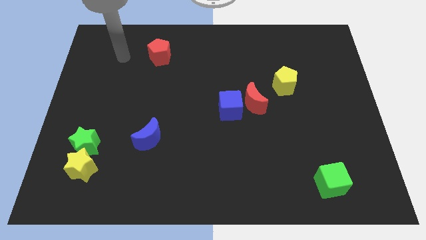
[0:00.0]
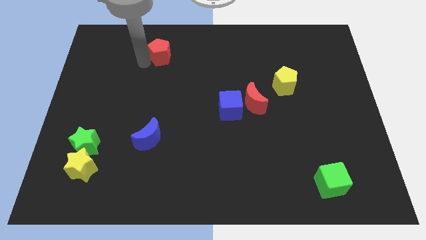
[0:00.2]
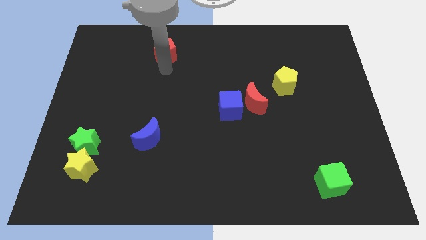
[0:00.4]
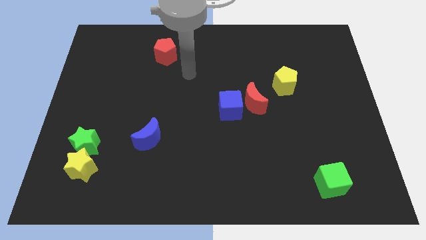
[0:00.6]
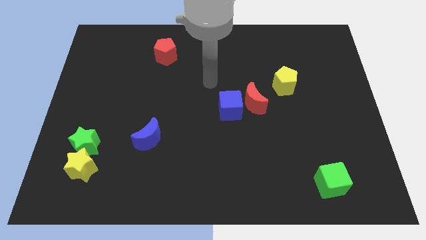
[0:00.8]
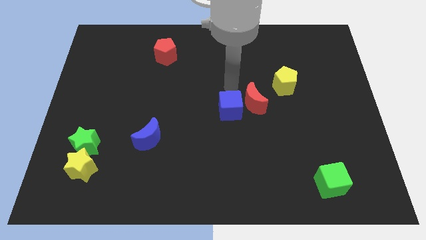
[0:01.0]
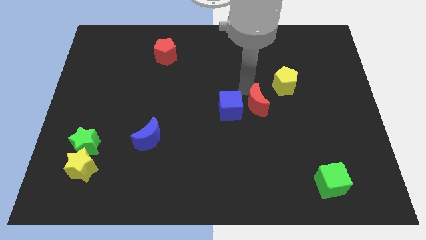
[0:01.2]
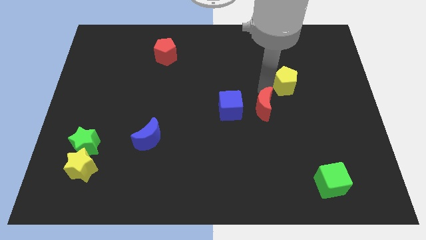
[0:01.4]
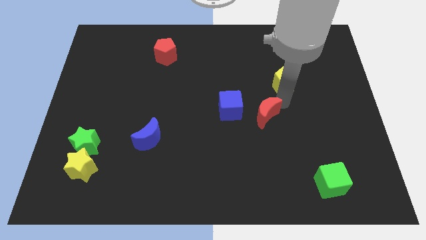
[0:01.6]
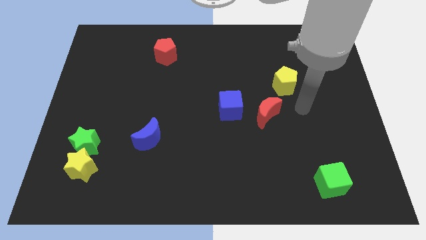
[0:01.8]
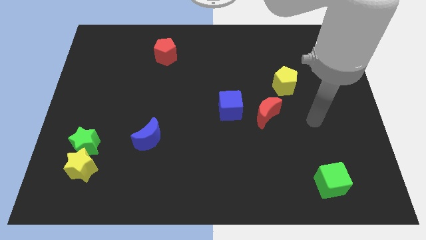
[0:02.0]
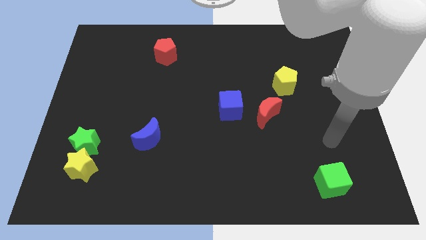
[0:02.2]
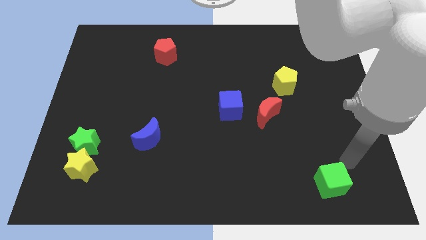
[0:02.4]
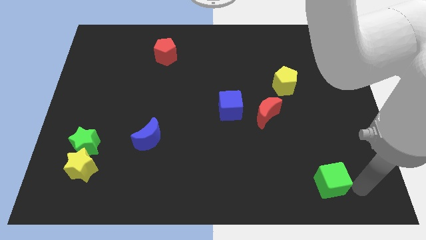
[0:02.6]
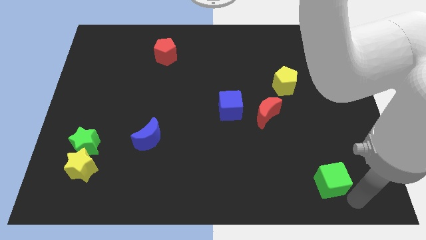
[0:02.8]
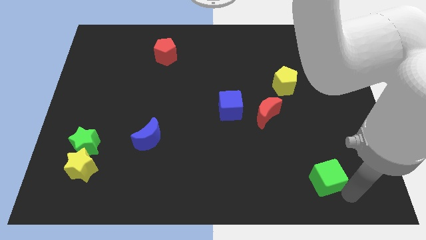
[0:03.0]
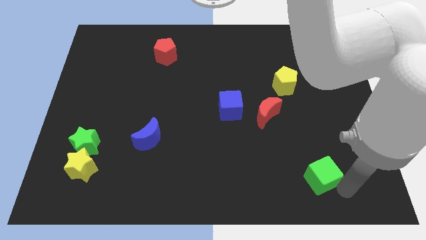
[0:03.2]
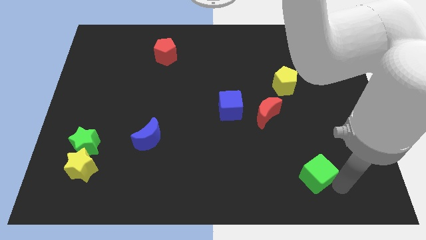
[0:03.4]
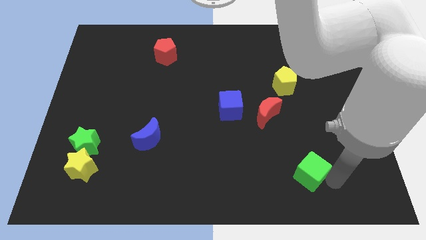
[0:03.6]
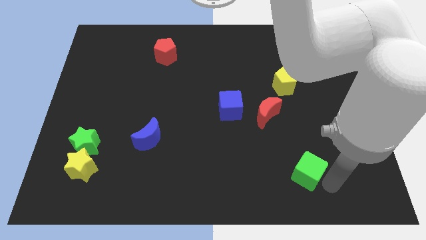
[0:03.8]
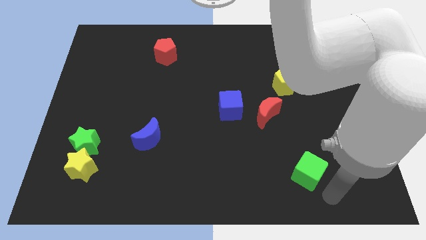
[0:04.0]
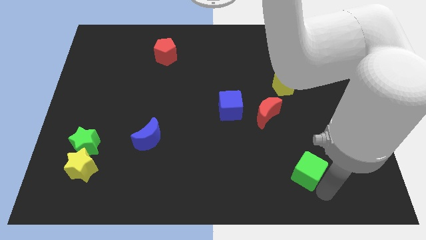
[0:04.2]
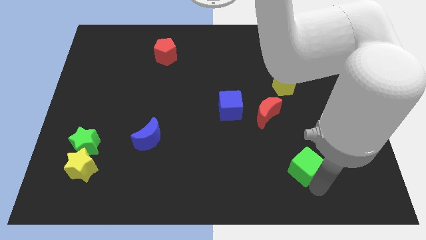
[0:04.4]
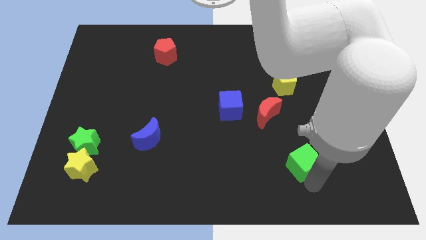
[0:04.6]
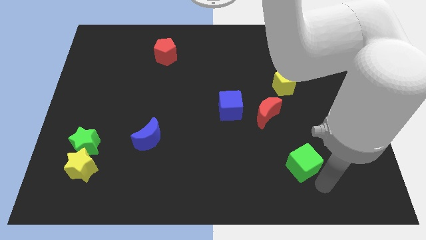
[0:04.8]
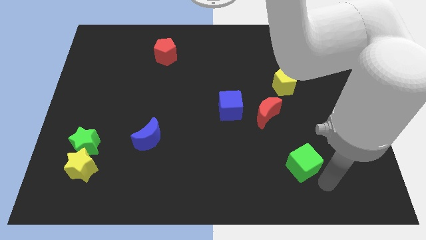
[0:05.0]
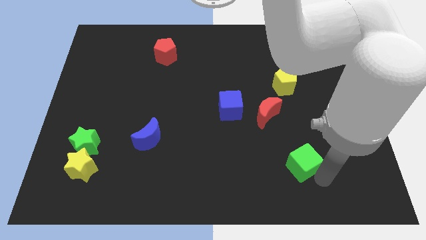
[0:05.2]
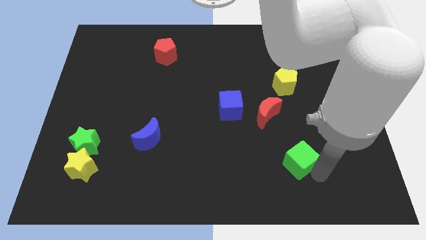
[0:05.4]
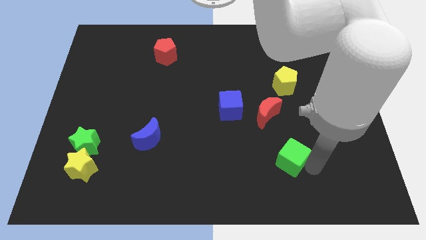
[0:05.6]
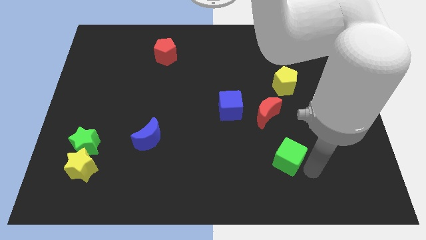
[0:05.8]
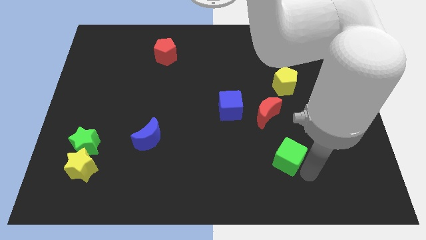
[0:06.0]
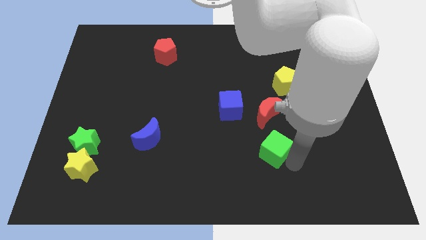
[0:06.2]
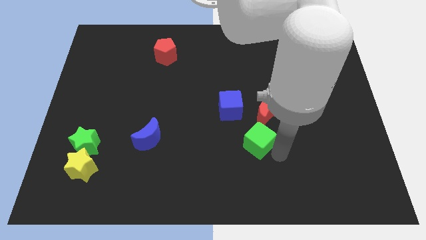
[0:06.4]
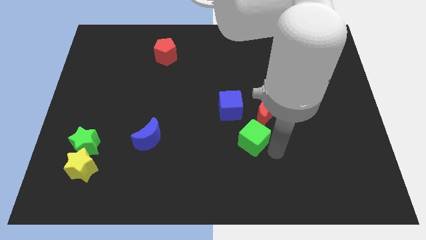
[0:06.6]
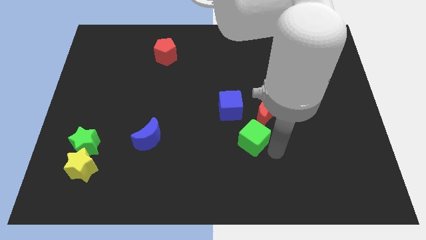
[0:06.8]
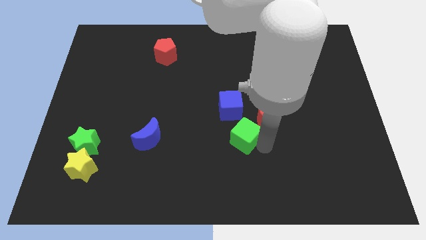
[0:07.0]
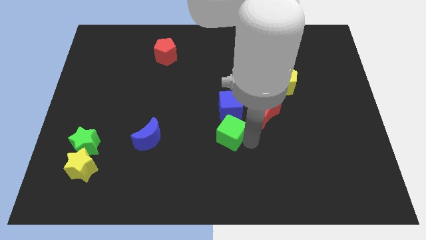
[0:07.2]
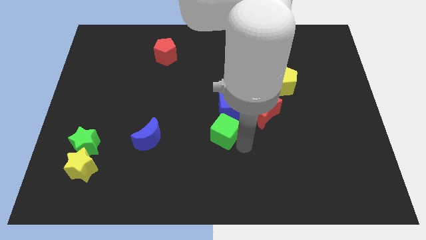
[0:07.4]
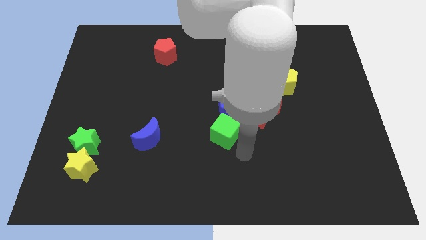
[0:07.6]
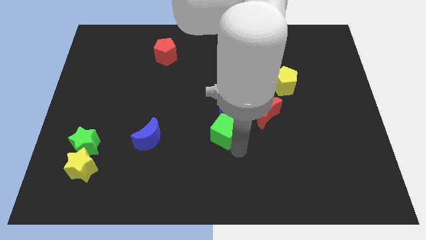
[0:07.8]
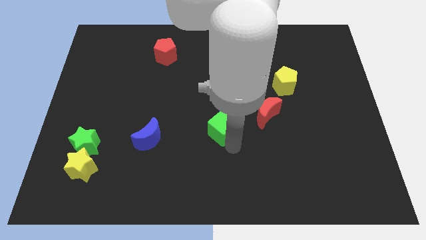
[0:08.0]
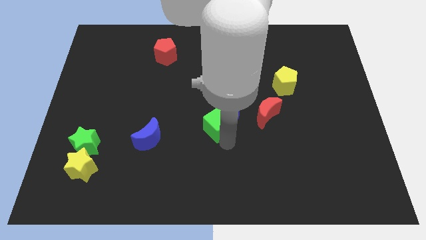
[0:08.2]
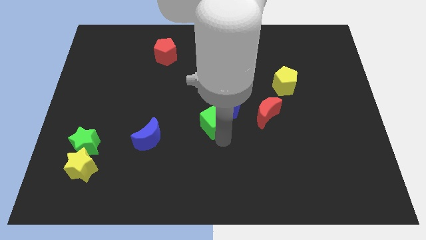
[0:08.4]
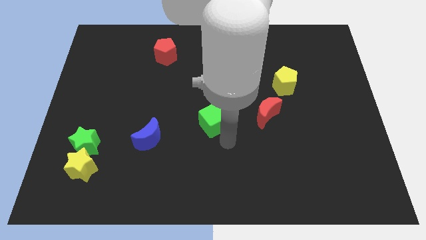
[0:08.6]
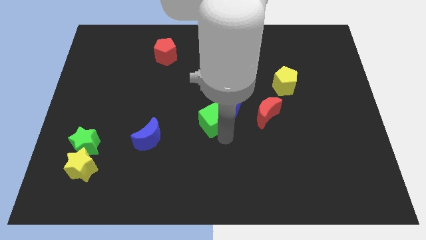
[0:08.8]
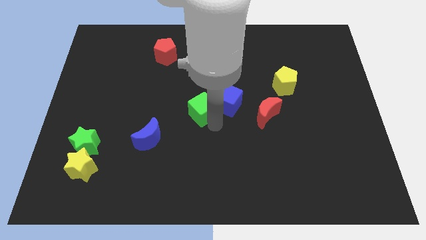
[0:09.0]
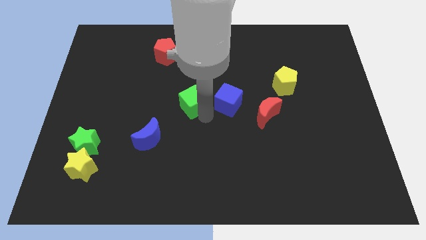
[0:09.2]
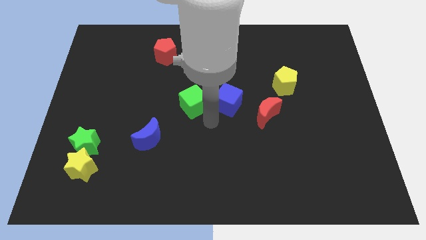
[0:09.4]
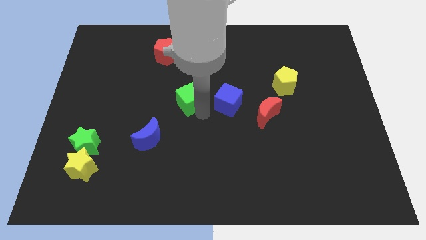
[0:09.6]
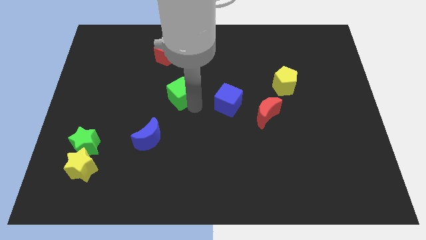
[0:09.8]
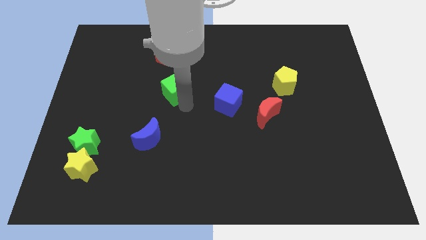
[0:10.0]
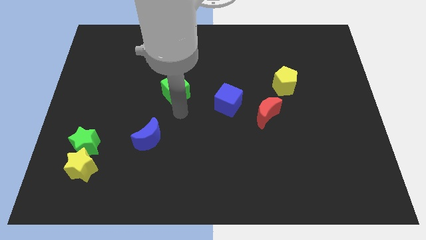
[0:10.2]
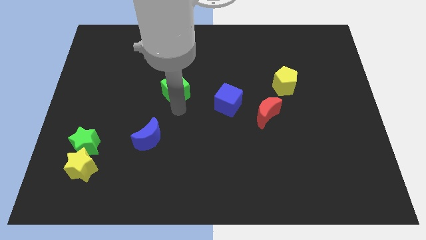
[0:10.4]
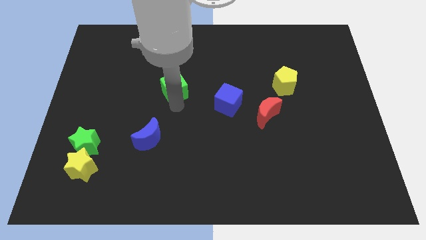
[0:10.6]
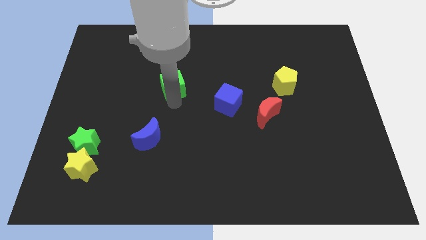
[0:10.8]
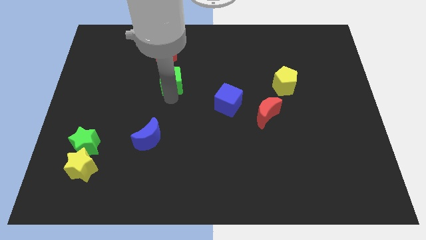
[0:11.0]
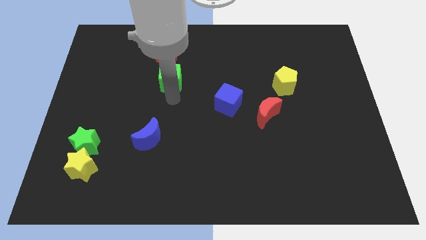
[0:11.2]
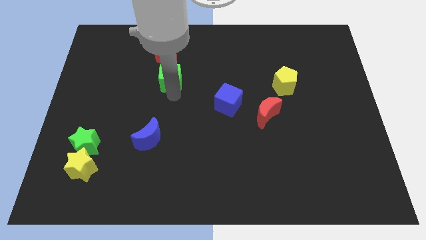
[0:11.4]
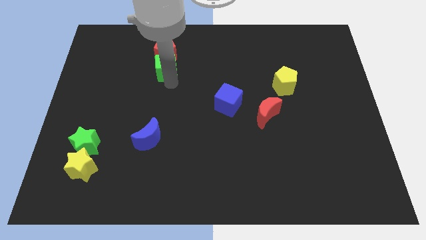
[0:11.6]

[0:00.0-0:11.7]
slide the green cube next to the red pentagon

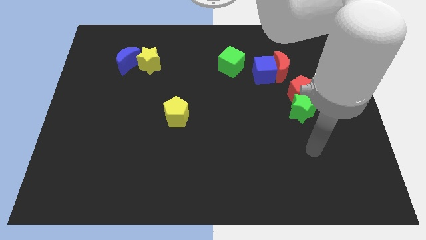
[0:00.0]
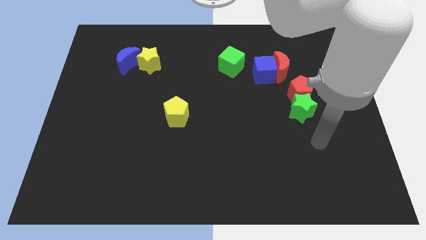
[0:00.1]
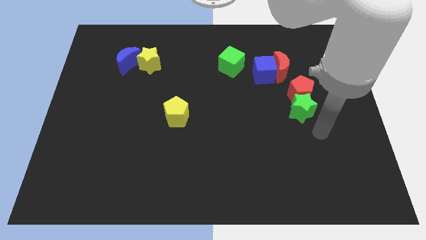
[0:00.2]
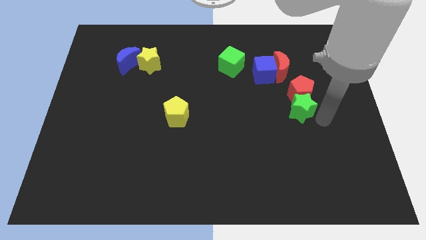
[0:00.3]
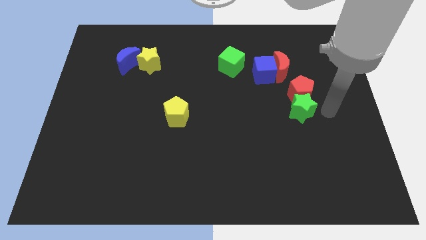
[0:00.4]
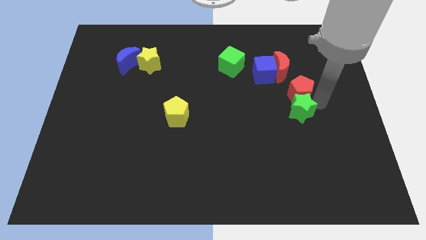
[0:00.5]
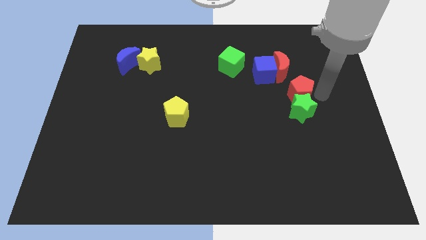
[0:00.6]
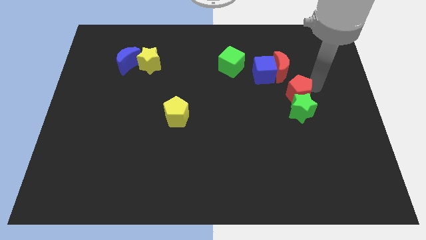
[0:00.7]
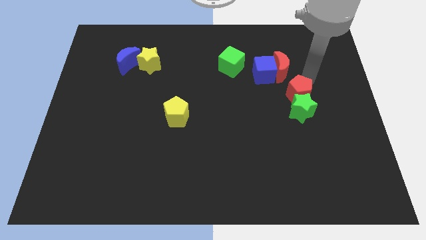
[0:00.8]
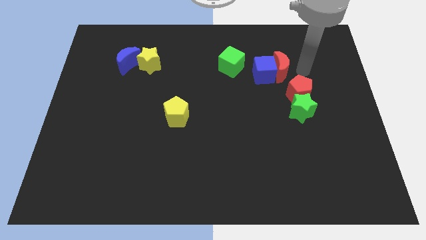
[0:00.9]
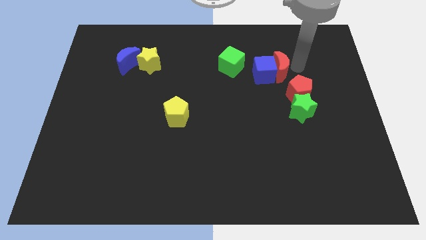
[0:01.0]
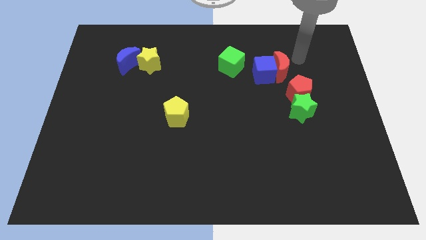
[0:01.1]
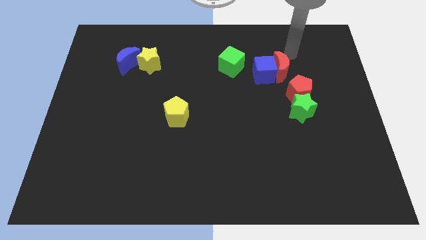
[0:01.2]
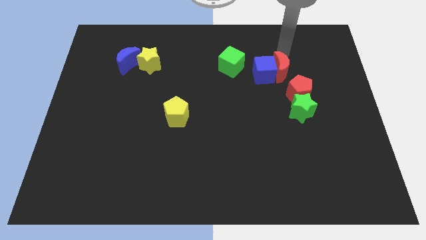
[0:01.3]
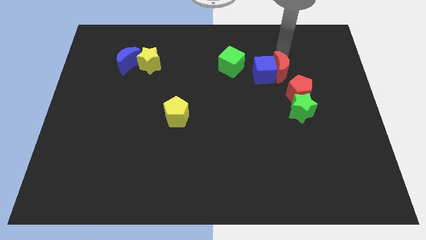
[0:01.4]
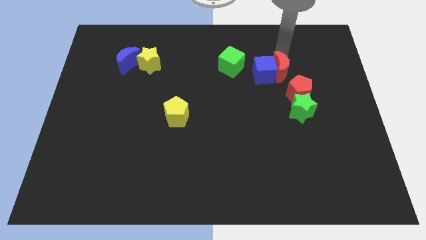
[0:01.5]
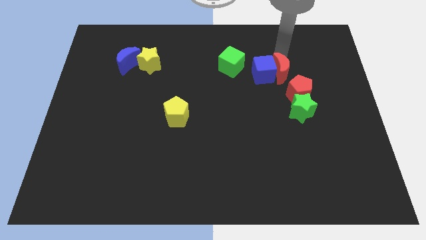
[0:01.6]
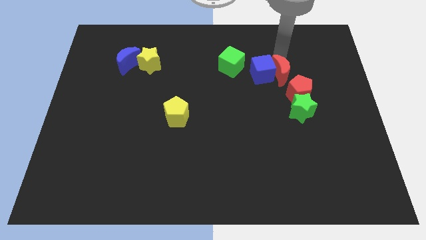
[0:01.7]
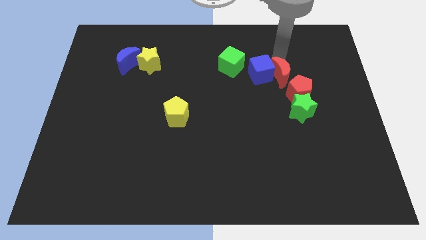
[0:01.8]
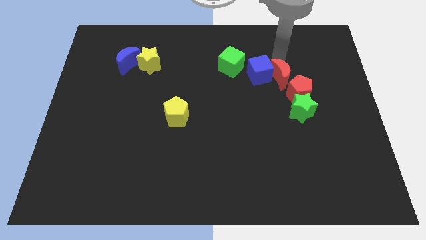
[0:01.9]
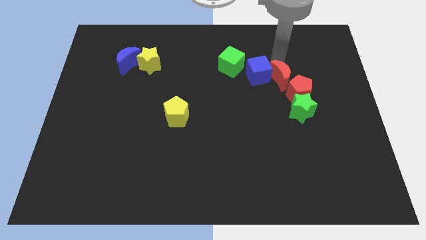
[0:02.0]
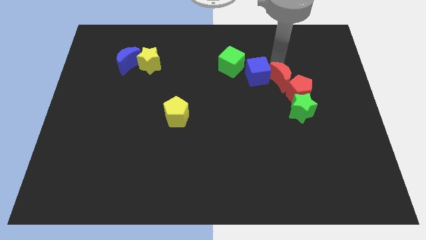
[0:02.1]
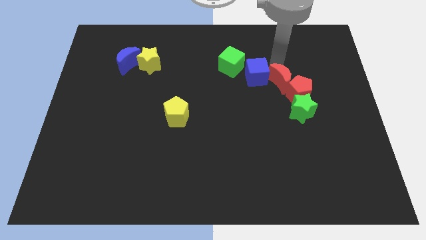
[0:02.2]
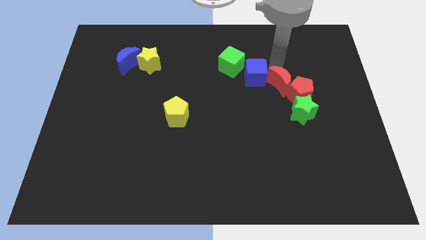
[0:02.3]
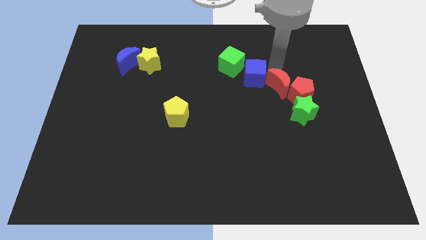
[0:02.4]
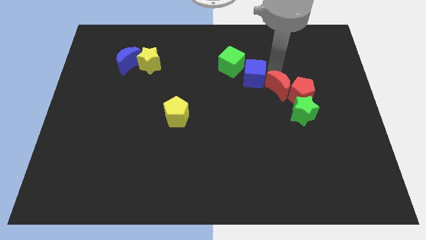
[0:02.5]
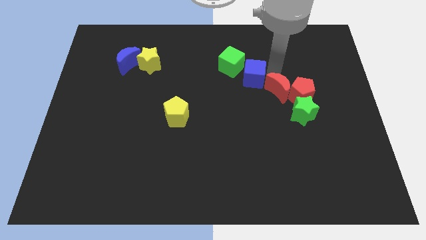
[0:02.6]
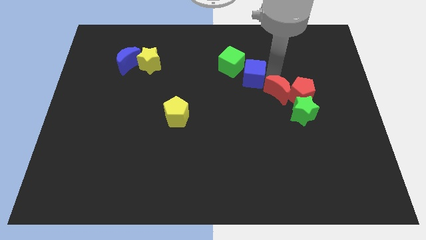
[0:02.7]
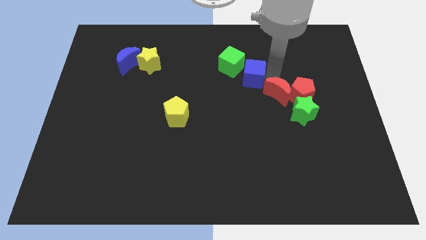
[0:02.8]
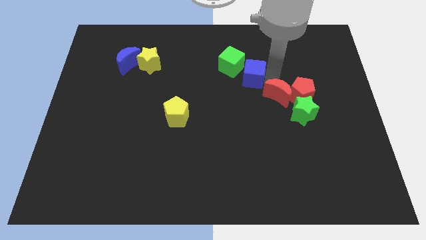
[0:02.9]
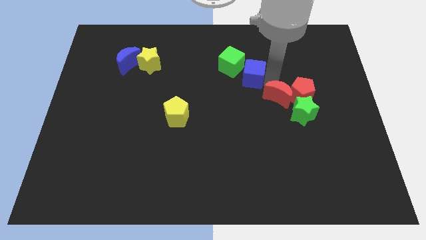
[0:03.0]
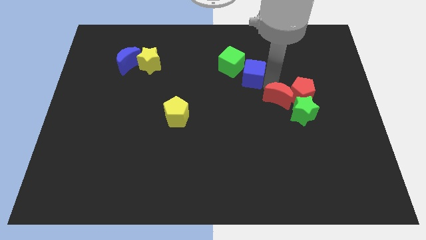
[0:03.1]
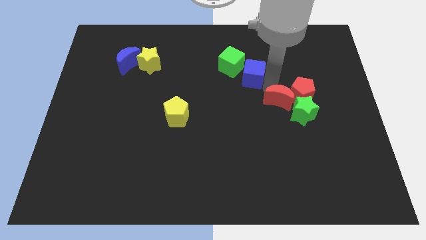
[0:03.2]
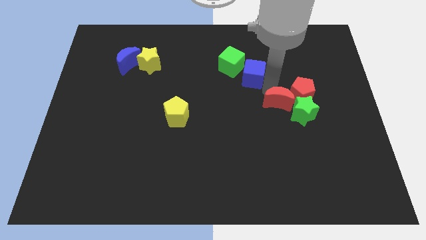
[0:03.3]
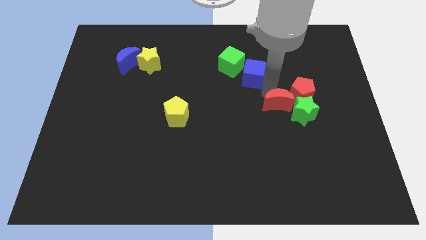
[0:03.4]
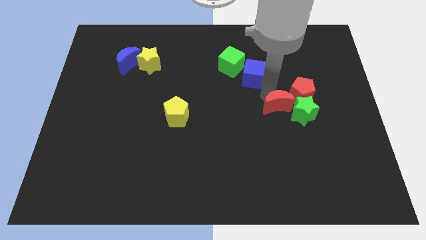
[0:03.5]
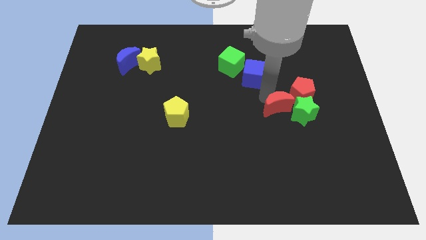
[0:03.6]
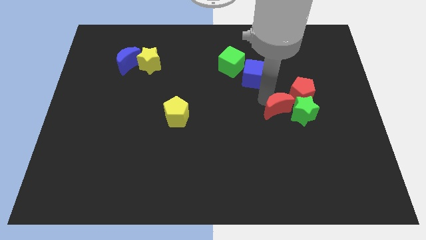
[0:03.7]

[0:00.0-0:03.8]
put the red moon to the green star
